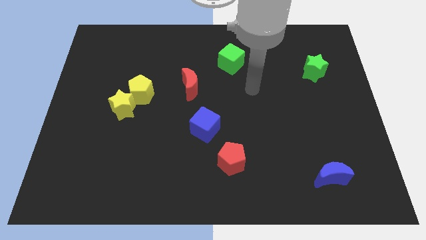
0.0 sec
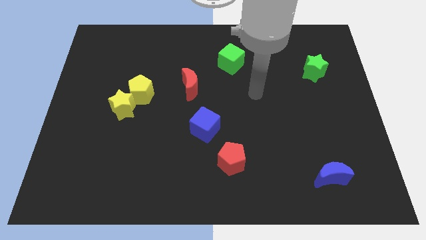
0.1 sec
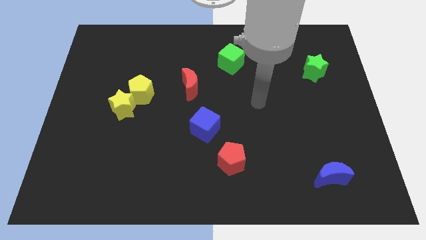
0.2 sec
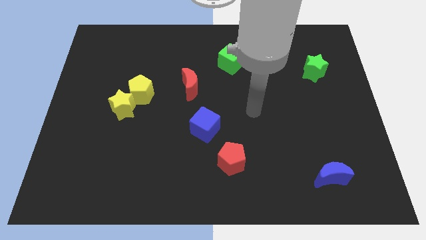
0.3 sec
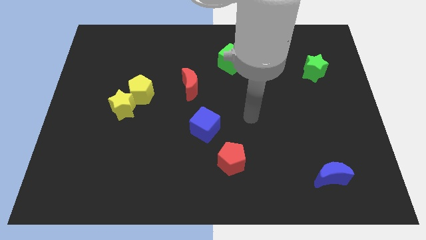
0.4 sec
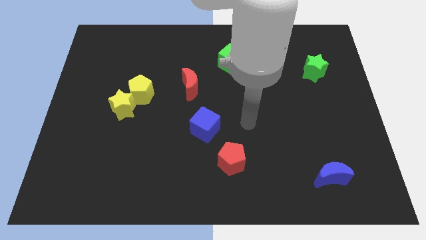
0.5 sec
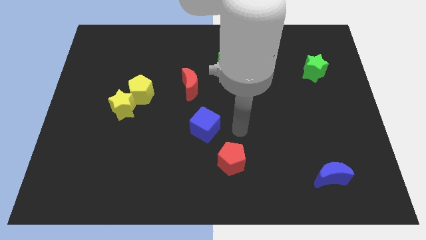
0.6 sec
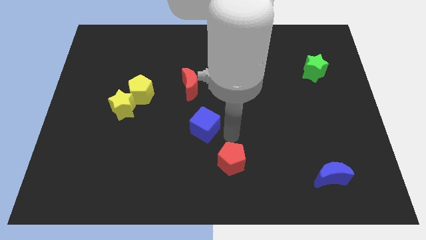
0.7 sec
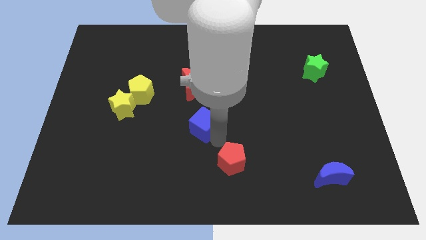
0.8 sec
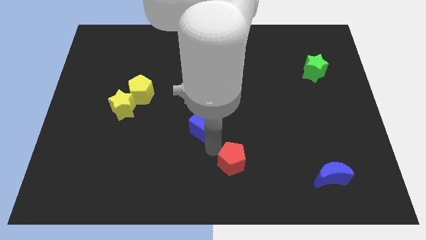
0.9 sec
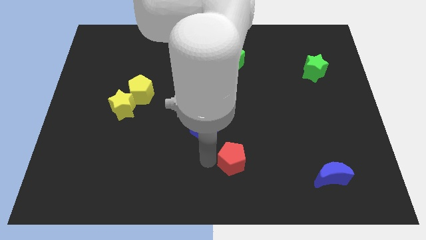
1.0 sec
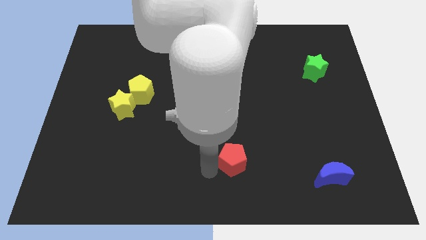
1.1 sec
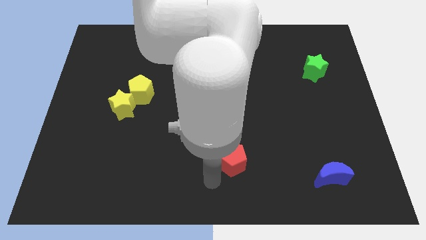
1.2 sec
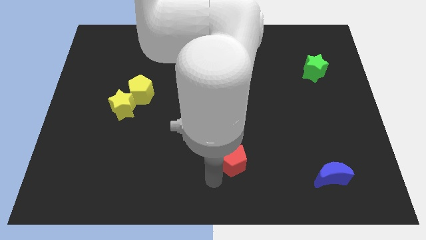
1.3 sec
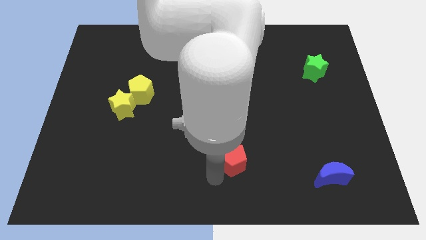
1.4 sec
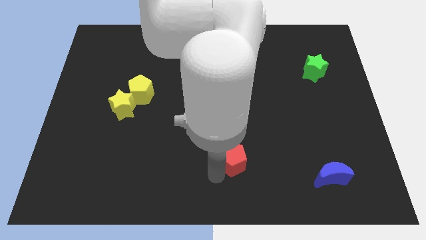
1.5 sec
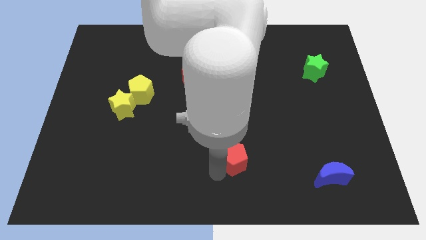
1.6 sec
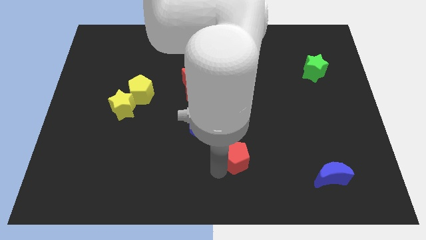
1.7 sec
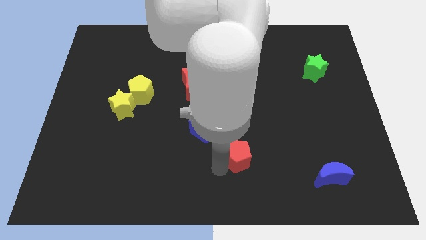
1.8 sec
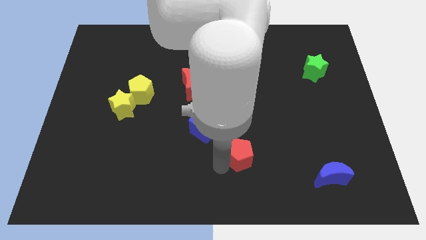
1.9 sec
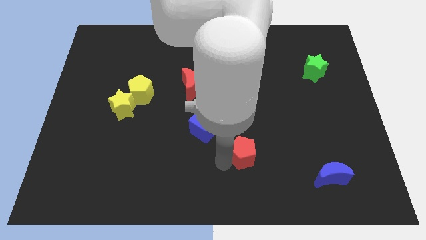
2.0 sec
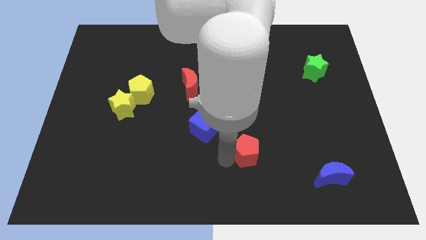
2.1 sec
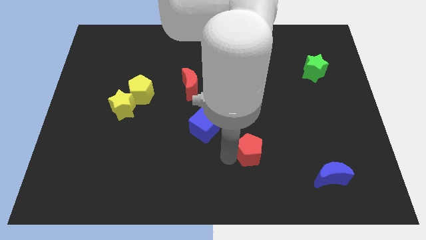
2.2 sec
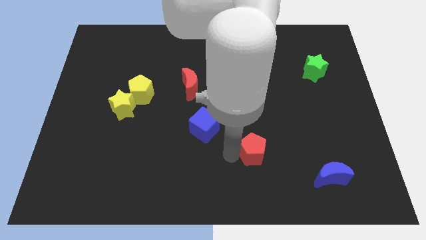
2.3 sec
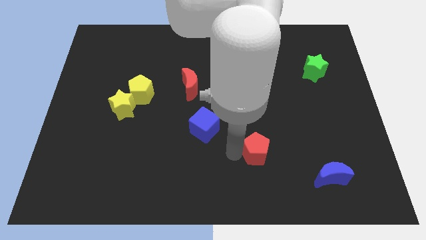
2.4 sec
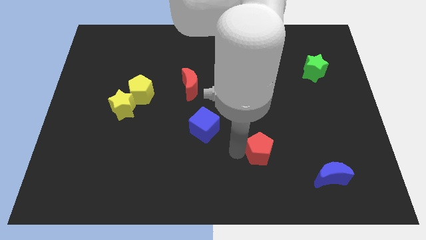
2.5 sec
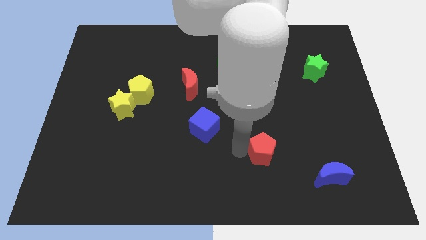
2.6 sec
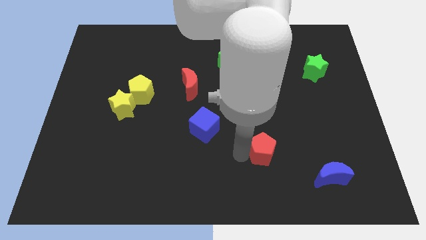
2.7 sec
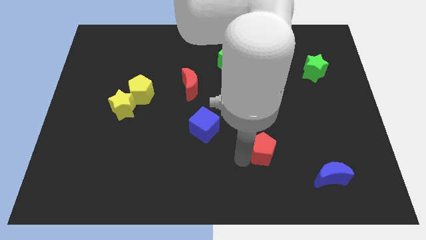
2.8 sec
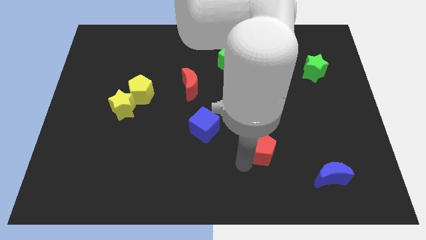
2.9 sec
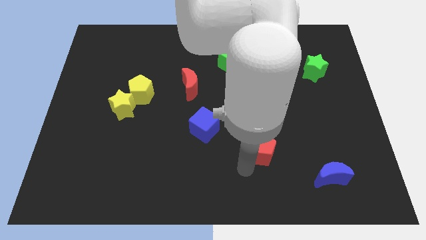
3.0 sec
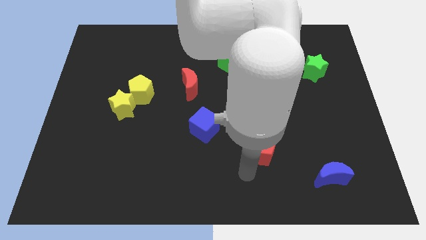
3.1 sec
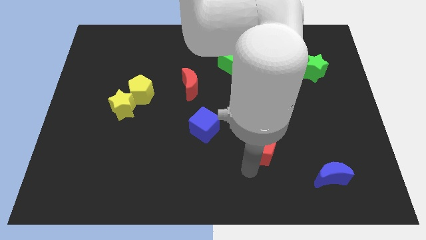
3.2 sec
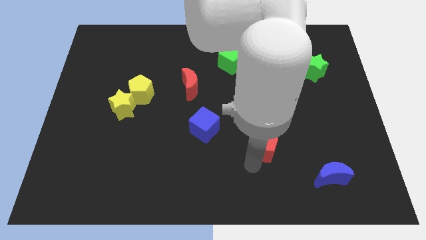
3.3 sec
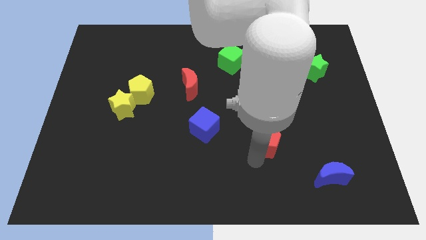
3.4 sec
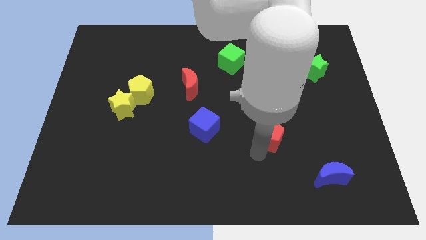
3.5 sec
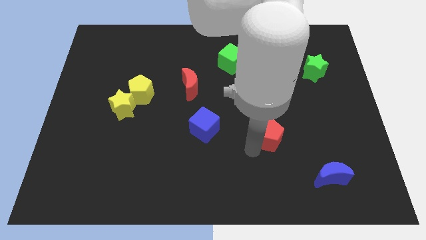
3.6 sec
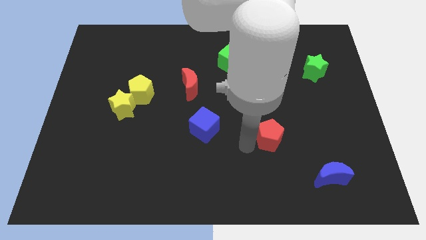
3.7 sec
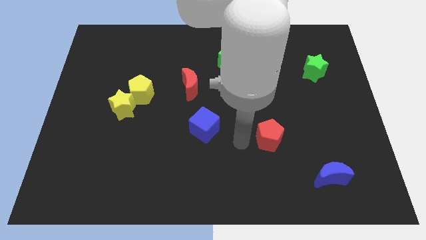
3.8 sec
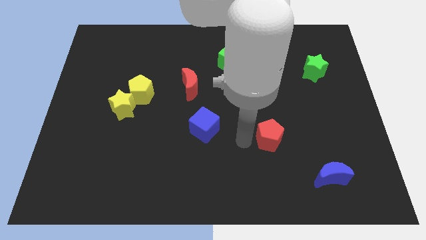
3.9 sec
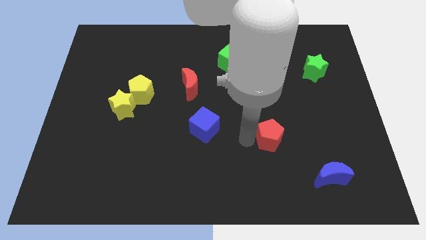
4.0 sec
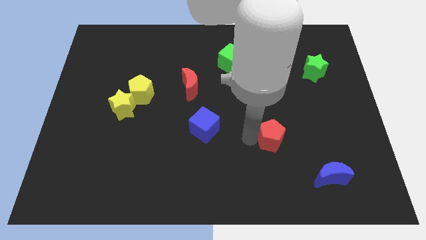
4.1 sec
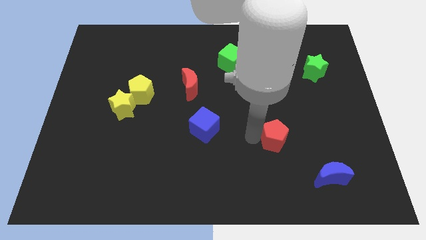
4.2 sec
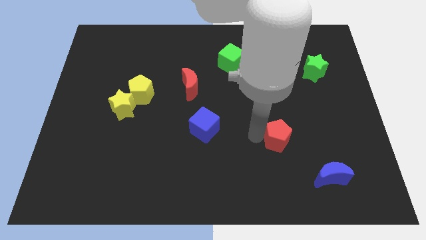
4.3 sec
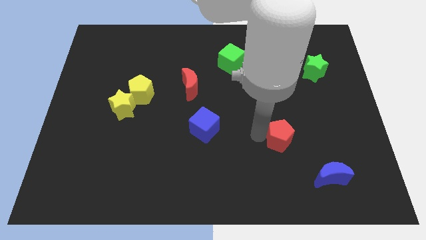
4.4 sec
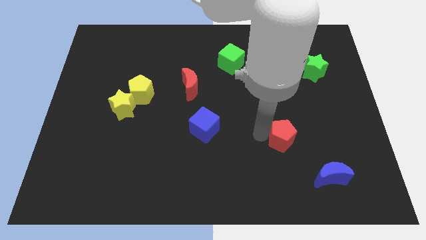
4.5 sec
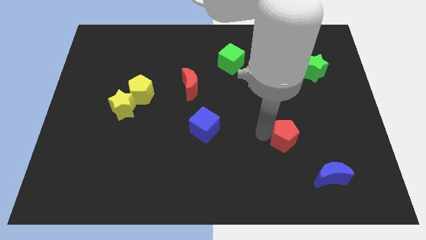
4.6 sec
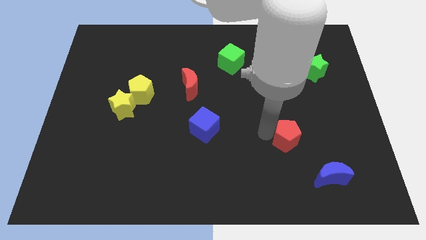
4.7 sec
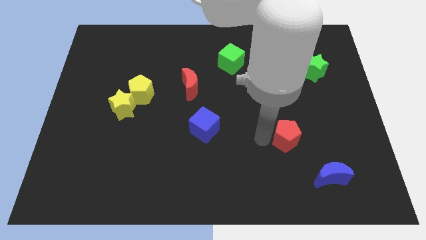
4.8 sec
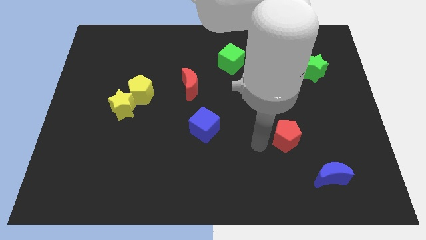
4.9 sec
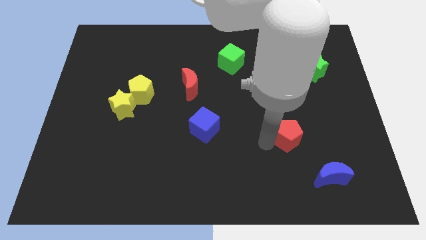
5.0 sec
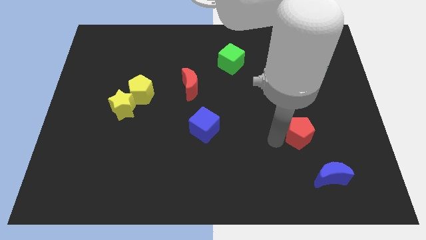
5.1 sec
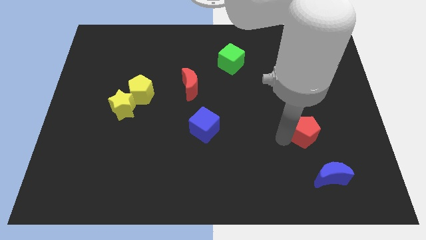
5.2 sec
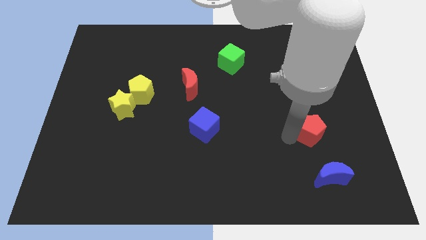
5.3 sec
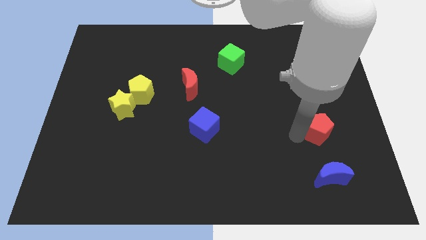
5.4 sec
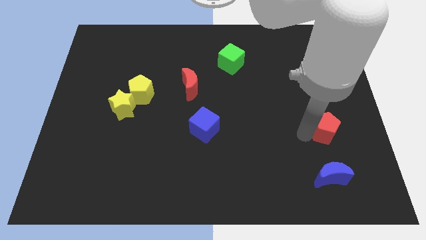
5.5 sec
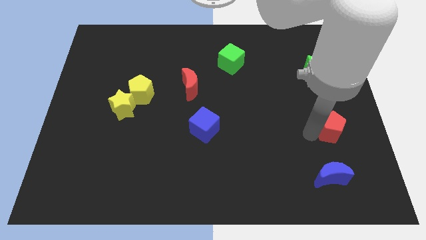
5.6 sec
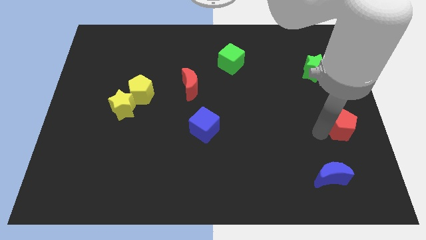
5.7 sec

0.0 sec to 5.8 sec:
push the red pentagon to the right side
